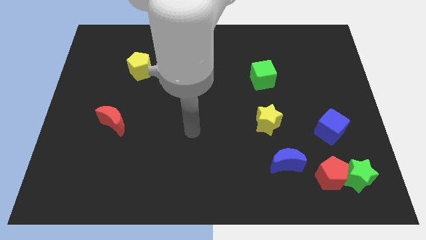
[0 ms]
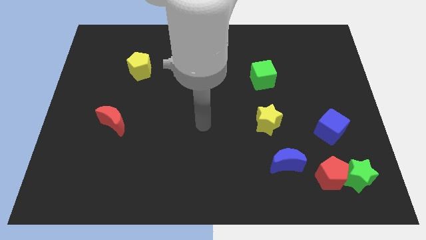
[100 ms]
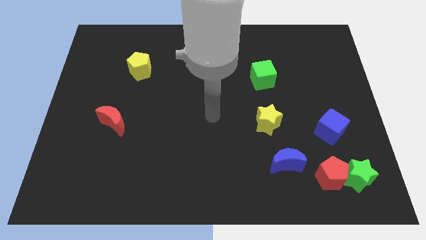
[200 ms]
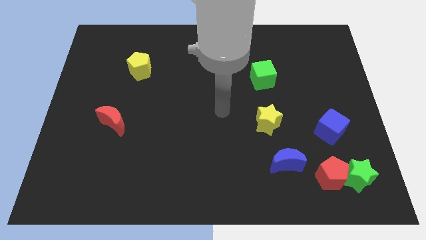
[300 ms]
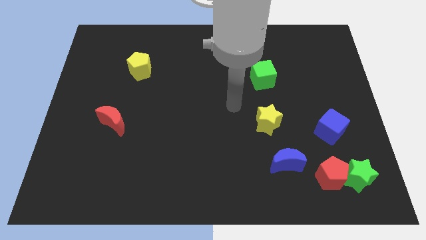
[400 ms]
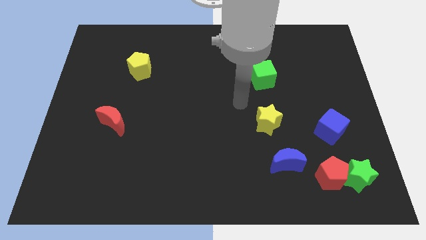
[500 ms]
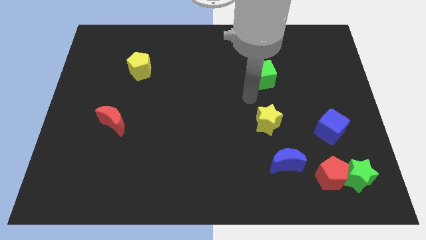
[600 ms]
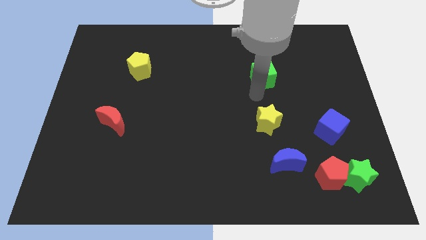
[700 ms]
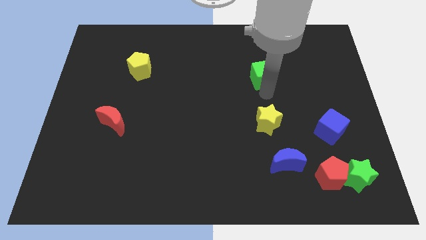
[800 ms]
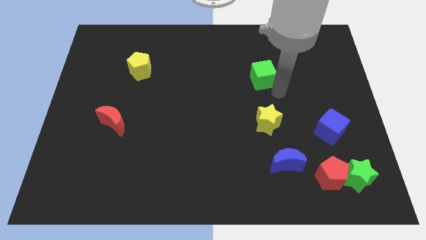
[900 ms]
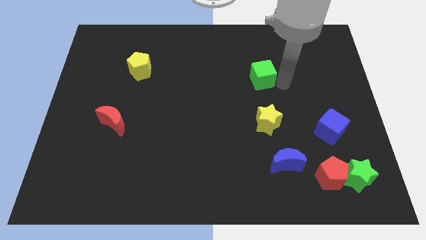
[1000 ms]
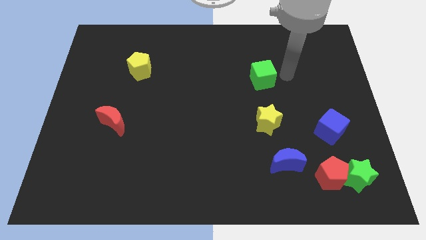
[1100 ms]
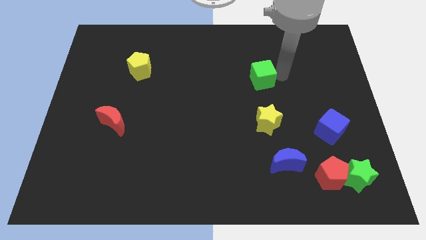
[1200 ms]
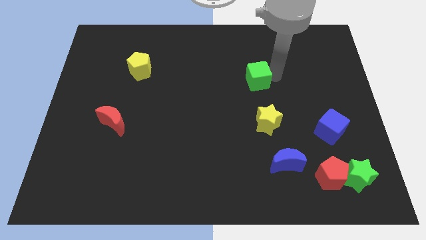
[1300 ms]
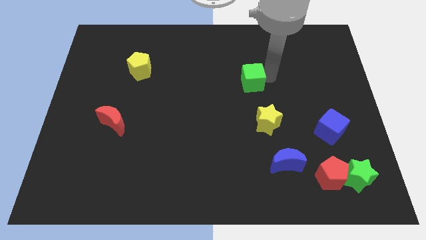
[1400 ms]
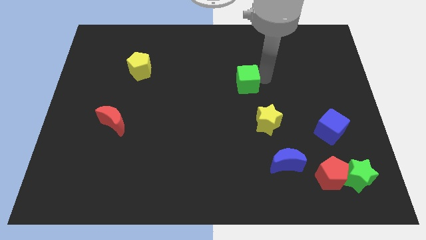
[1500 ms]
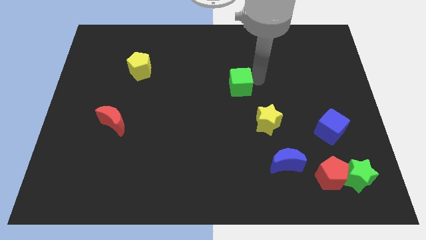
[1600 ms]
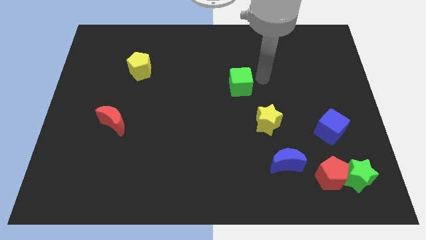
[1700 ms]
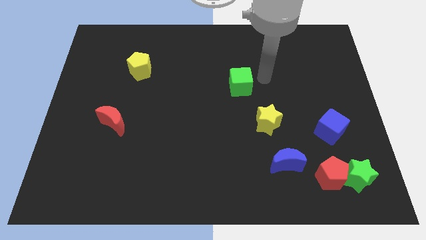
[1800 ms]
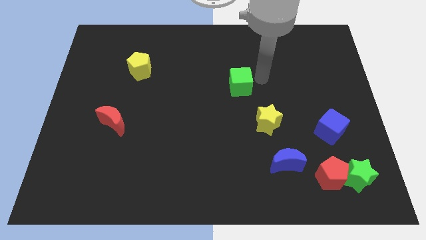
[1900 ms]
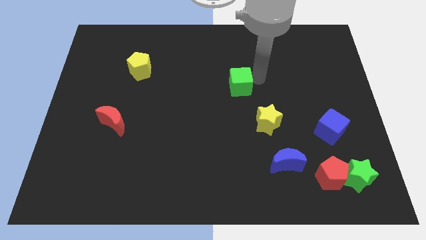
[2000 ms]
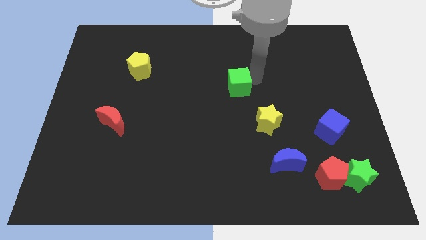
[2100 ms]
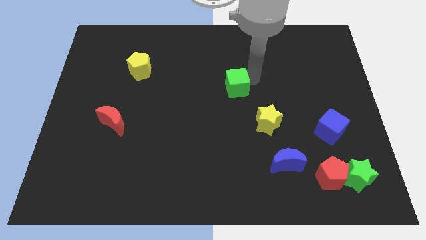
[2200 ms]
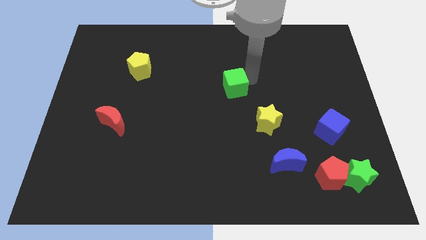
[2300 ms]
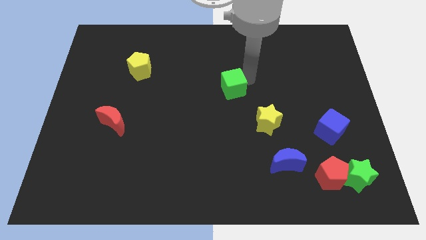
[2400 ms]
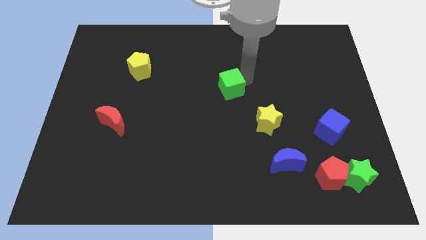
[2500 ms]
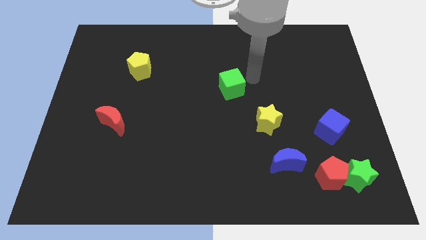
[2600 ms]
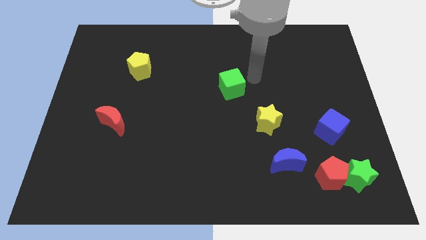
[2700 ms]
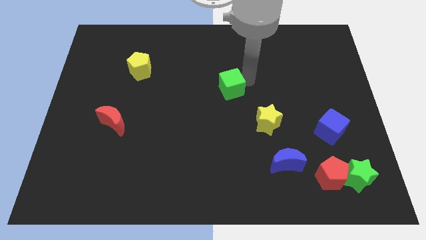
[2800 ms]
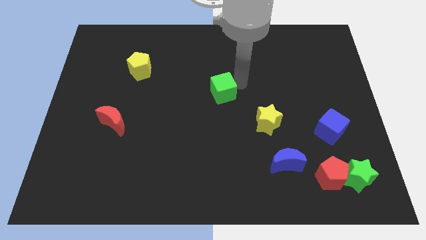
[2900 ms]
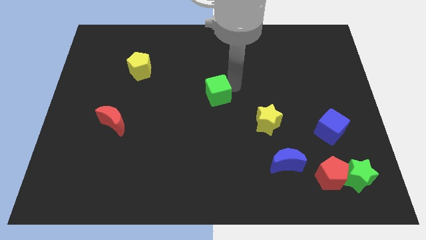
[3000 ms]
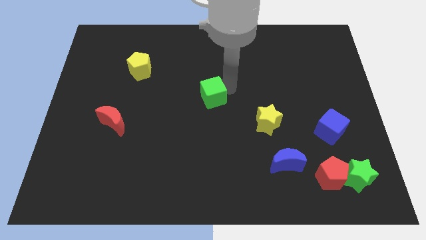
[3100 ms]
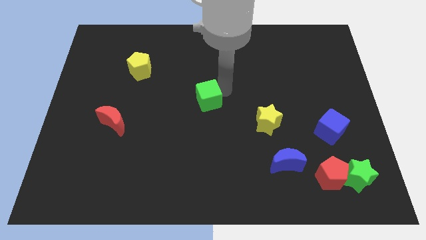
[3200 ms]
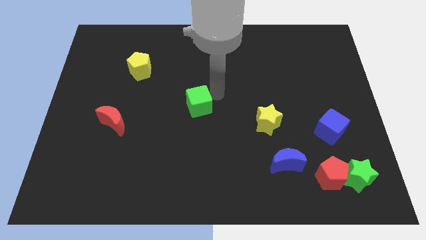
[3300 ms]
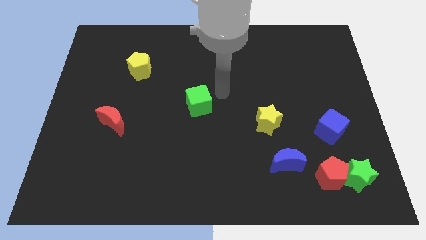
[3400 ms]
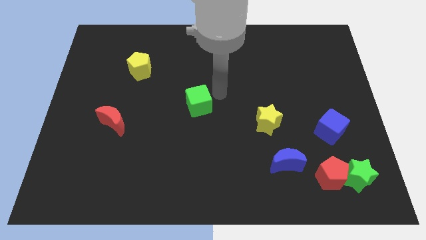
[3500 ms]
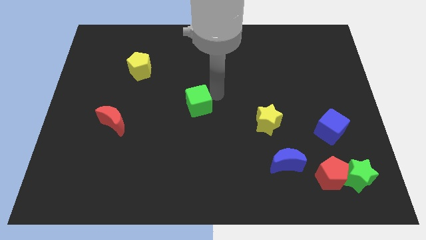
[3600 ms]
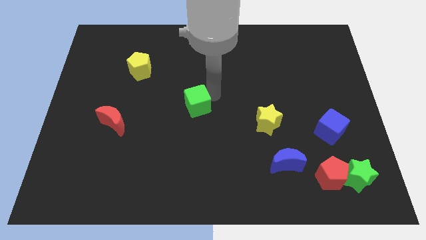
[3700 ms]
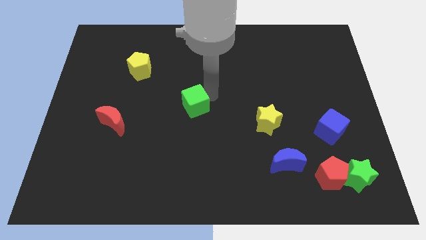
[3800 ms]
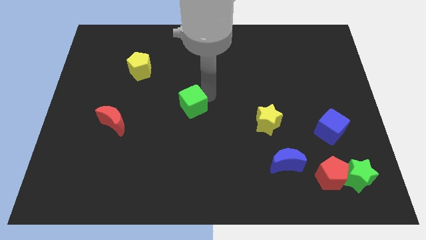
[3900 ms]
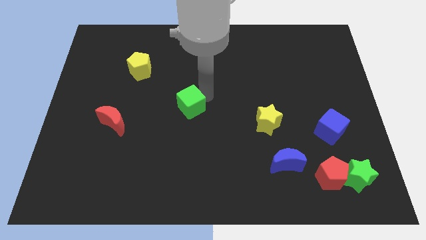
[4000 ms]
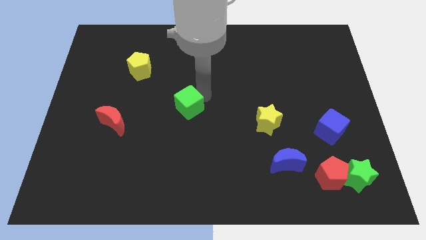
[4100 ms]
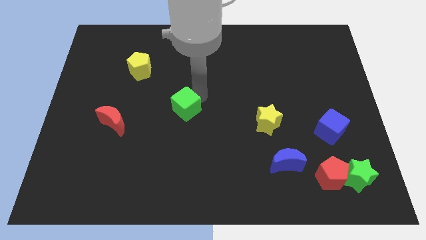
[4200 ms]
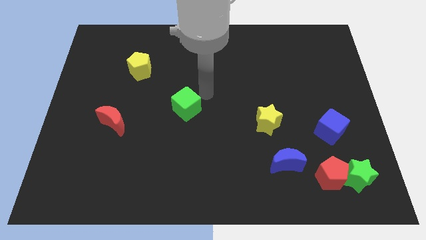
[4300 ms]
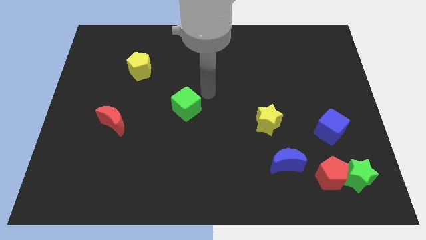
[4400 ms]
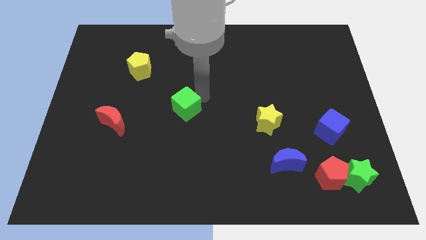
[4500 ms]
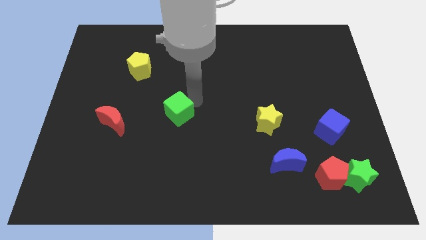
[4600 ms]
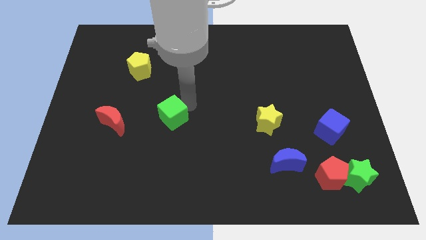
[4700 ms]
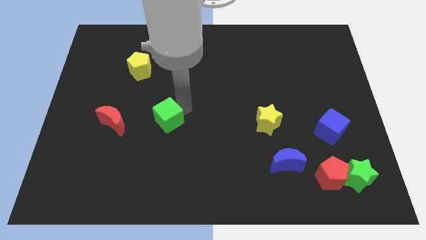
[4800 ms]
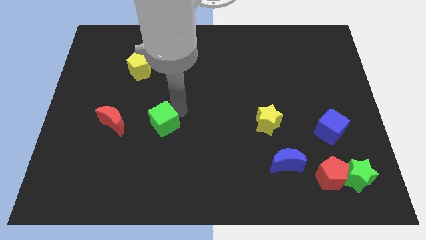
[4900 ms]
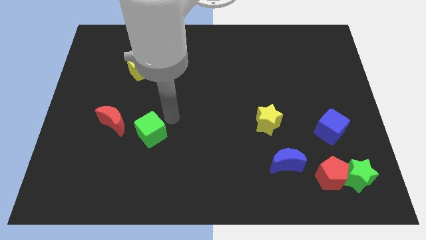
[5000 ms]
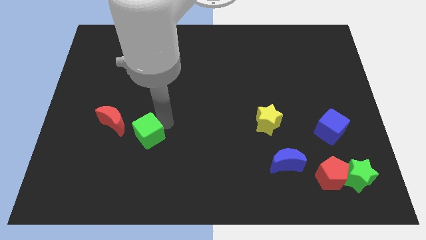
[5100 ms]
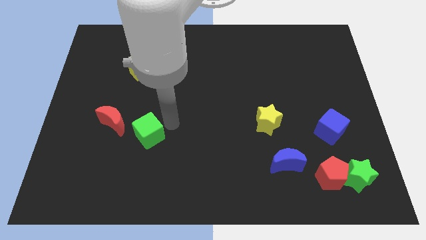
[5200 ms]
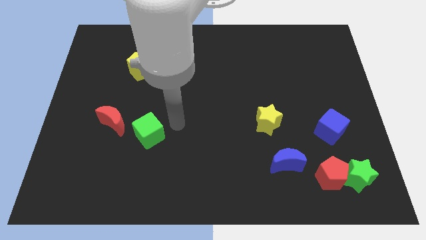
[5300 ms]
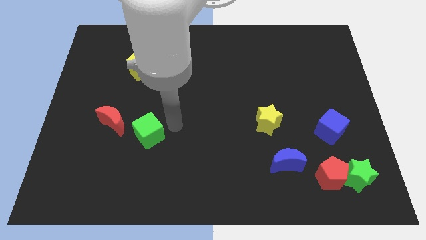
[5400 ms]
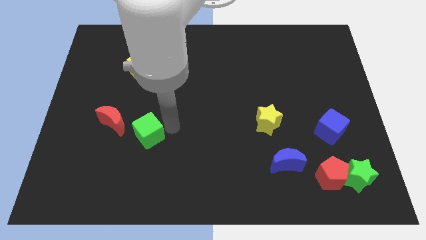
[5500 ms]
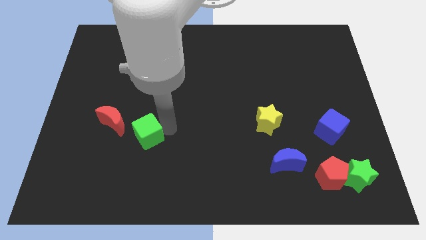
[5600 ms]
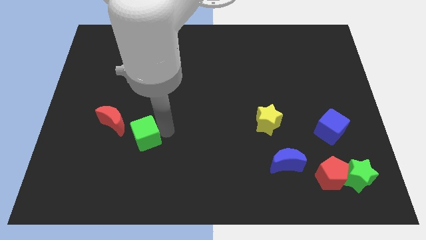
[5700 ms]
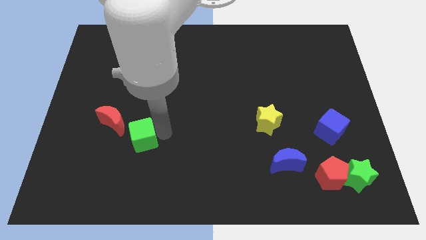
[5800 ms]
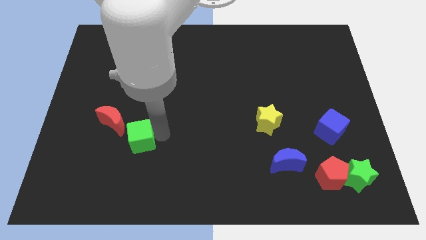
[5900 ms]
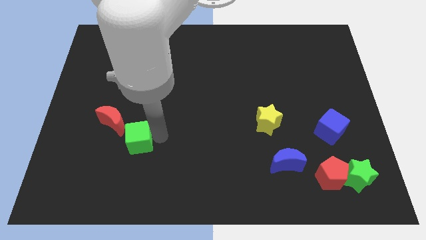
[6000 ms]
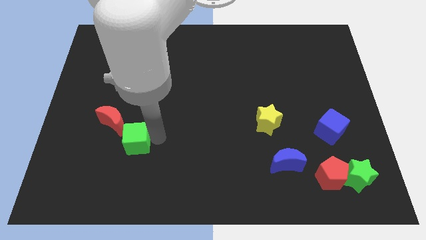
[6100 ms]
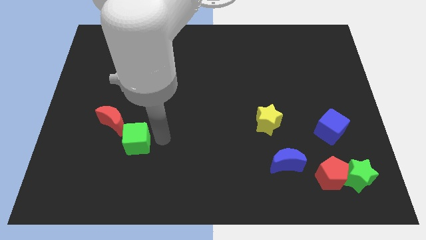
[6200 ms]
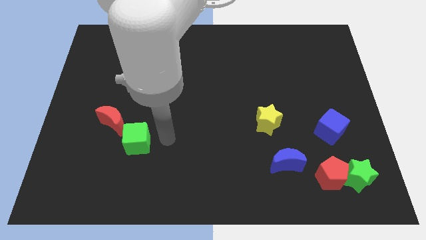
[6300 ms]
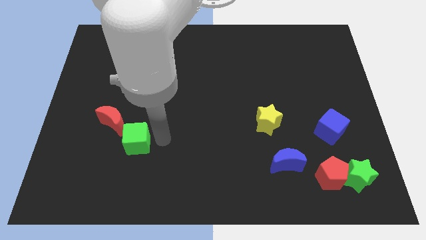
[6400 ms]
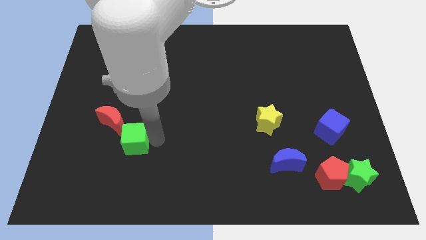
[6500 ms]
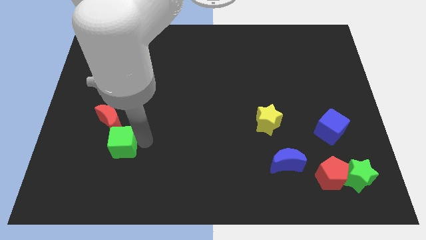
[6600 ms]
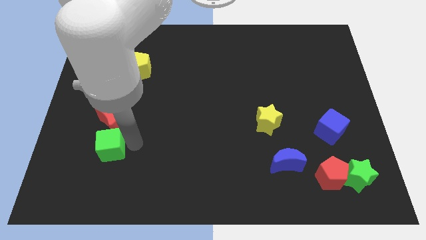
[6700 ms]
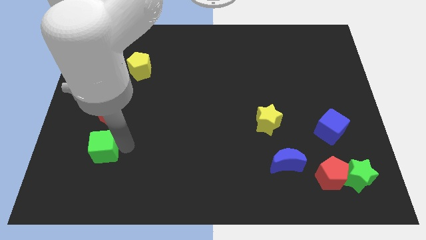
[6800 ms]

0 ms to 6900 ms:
put the green cube to the bottom left of the red moon

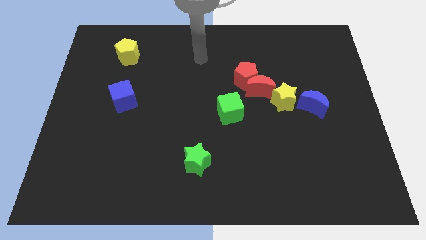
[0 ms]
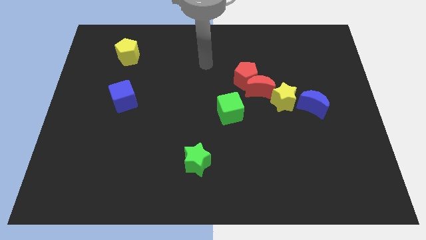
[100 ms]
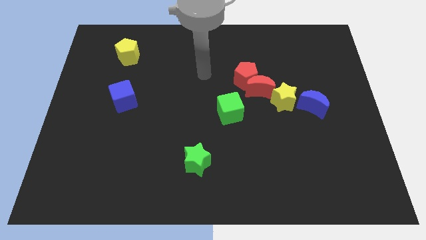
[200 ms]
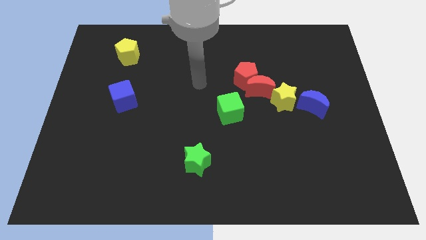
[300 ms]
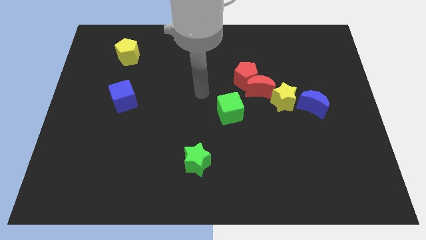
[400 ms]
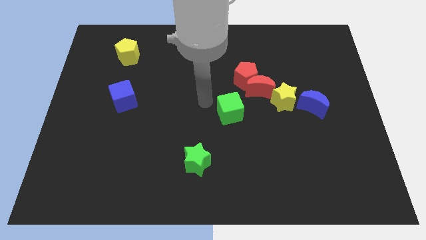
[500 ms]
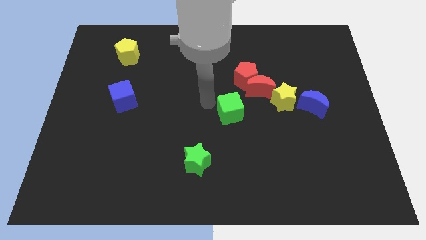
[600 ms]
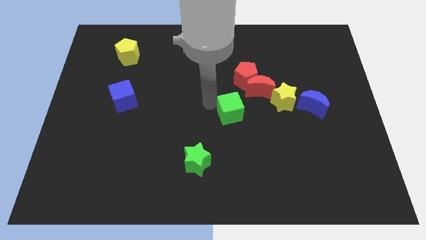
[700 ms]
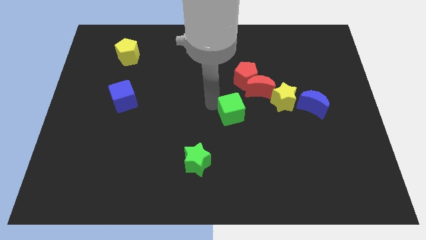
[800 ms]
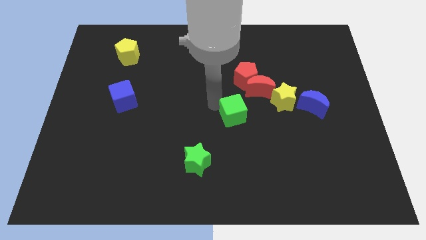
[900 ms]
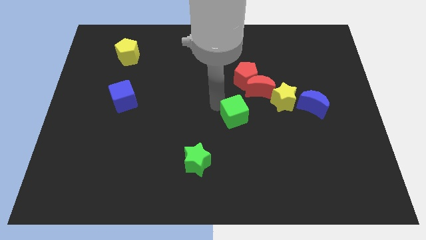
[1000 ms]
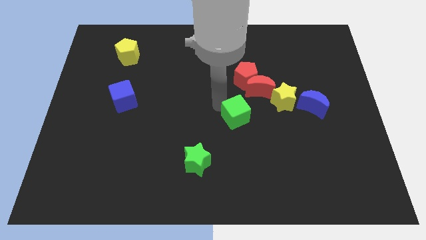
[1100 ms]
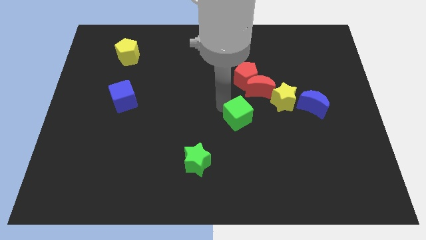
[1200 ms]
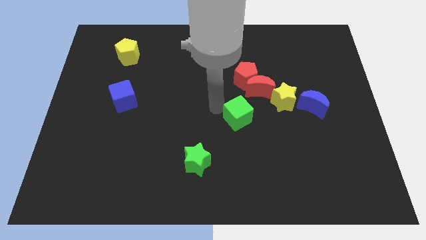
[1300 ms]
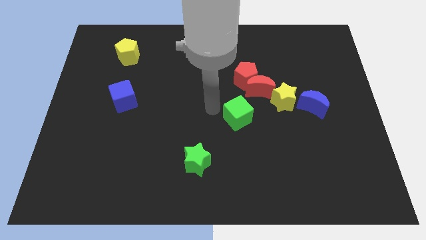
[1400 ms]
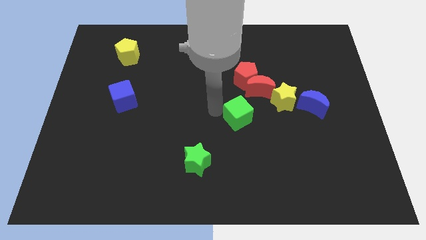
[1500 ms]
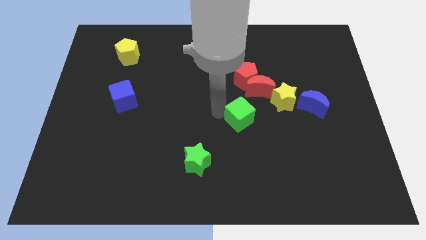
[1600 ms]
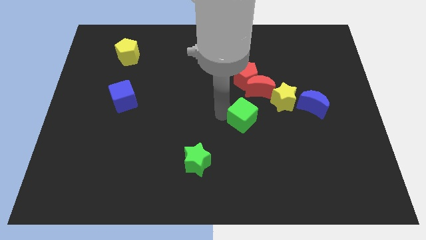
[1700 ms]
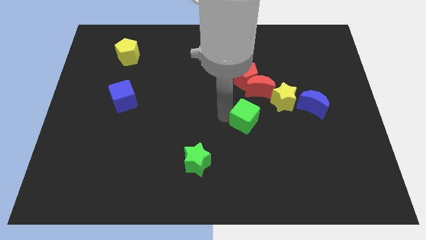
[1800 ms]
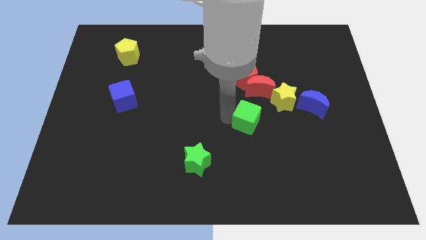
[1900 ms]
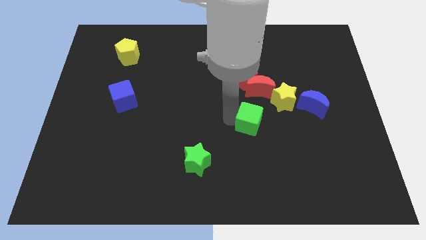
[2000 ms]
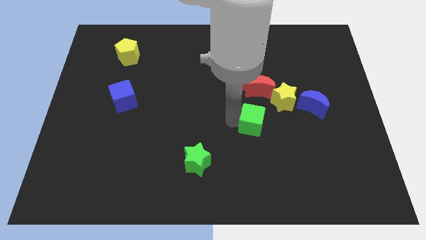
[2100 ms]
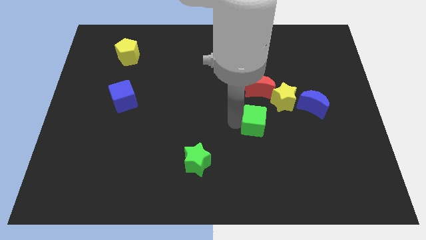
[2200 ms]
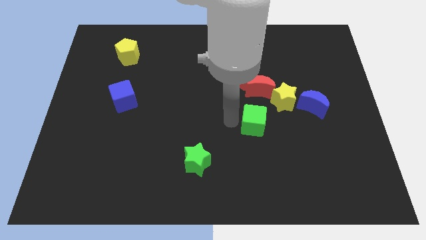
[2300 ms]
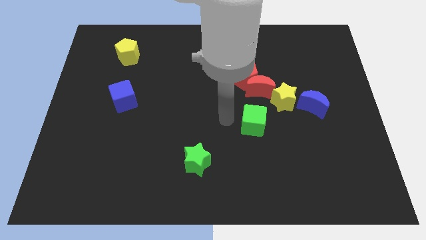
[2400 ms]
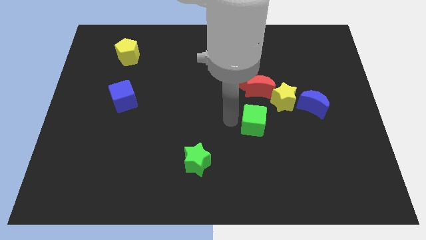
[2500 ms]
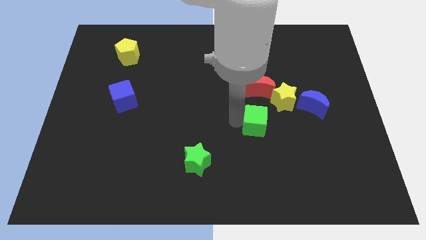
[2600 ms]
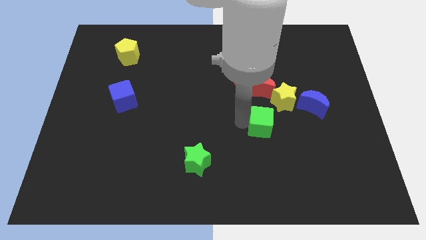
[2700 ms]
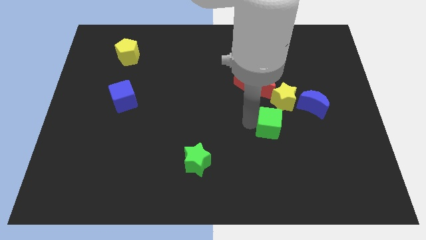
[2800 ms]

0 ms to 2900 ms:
put the green cube to the bottom of the yellow star
